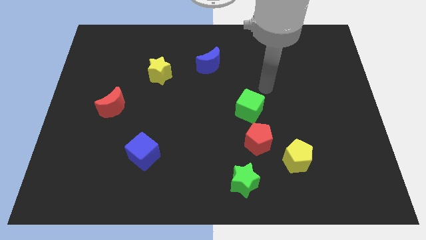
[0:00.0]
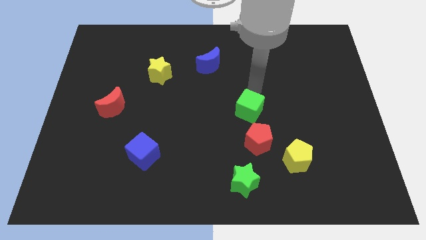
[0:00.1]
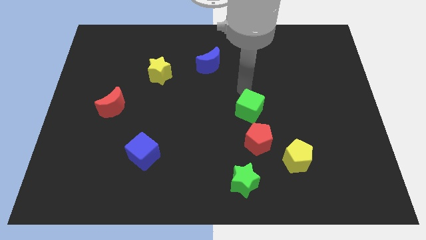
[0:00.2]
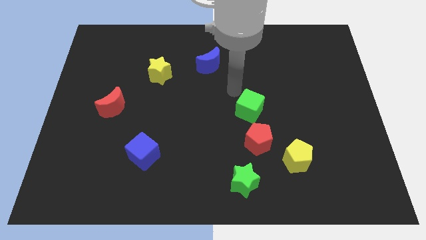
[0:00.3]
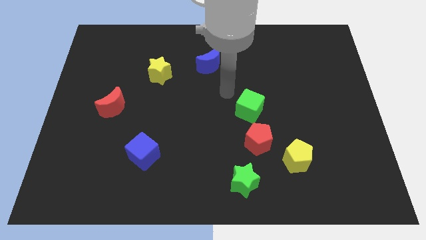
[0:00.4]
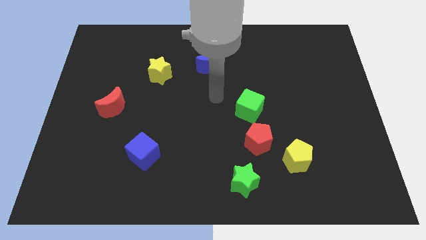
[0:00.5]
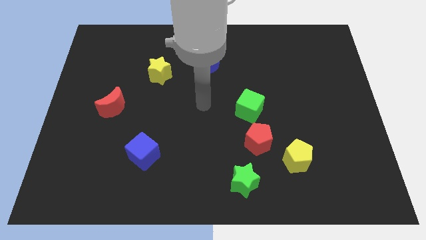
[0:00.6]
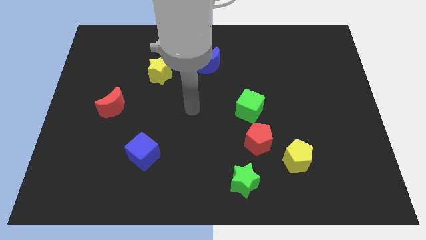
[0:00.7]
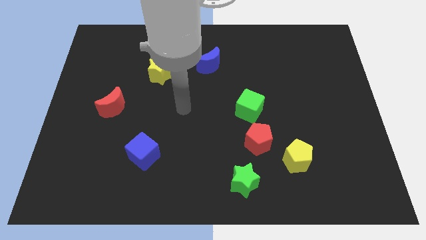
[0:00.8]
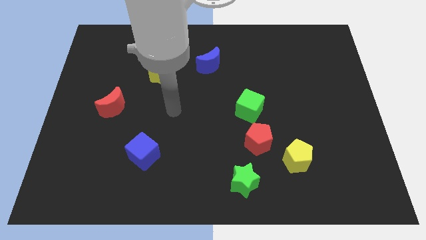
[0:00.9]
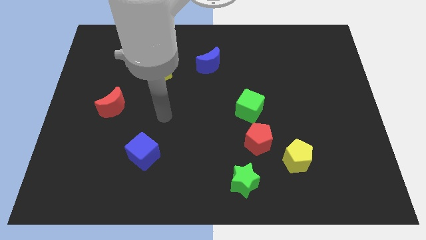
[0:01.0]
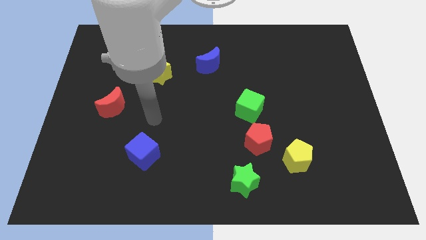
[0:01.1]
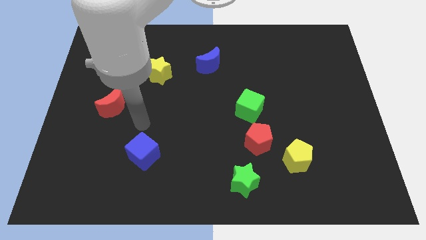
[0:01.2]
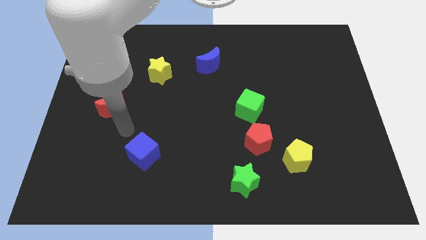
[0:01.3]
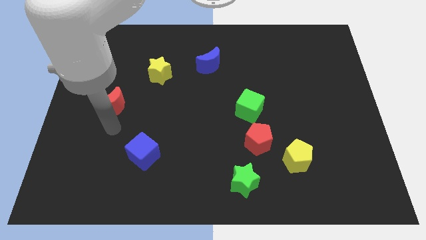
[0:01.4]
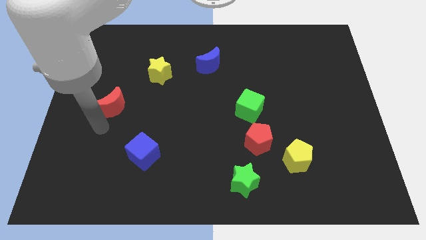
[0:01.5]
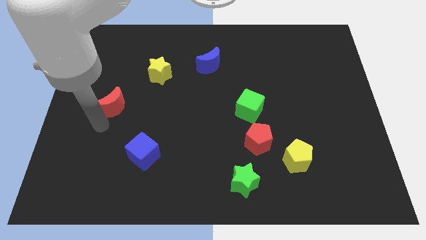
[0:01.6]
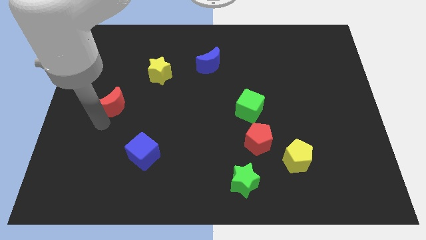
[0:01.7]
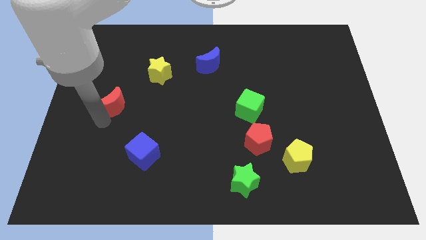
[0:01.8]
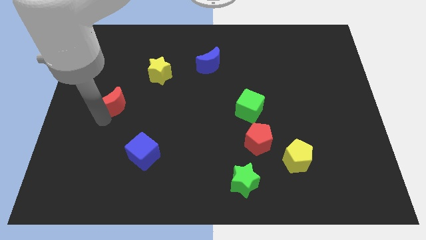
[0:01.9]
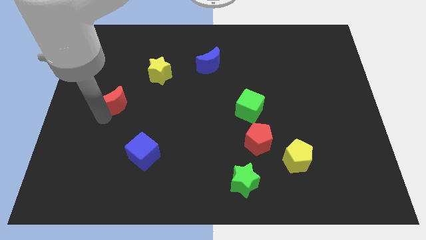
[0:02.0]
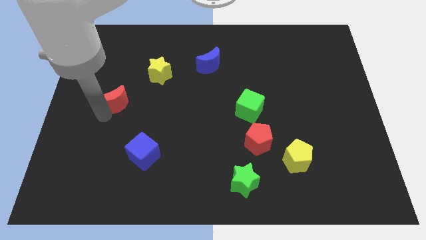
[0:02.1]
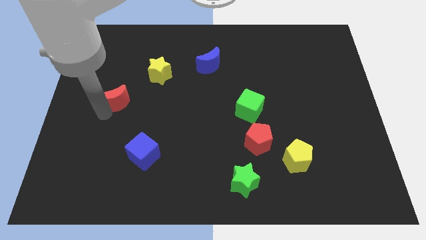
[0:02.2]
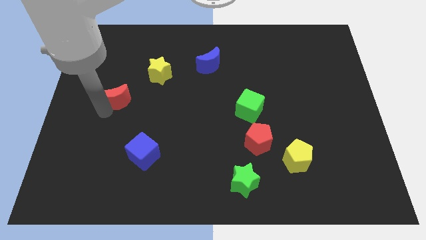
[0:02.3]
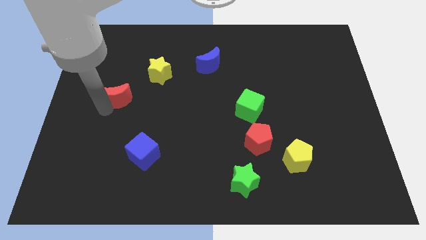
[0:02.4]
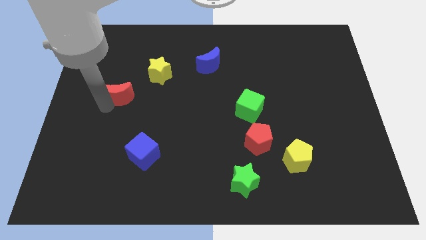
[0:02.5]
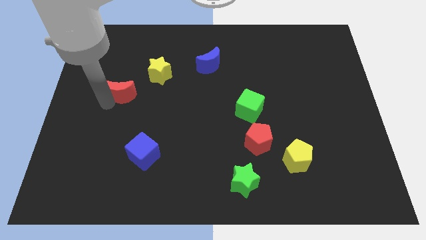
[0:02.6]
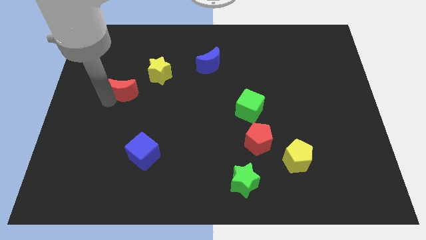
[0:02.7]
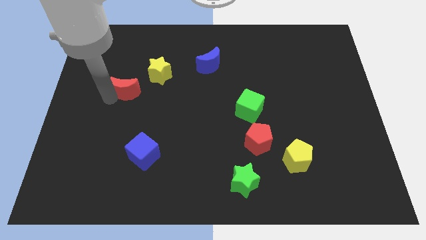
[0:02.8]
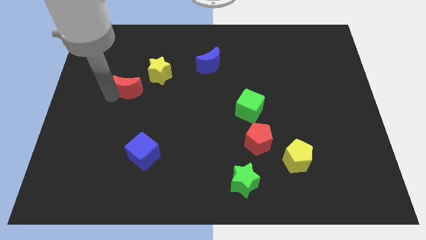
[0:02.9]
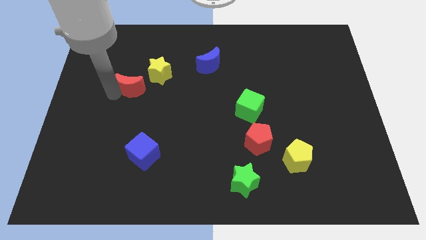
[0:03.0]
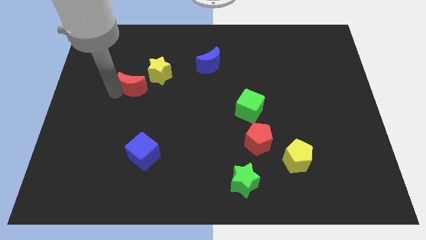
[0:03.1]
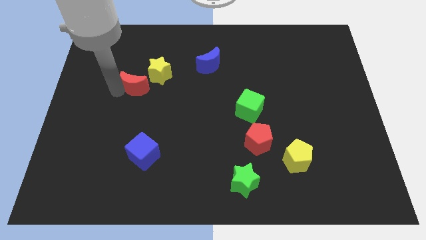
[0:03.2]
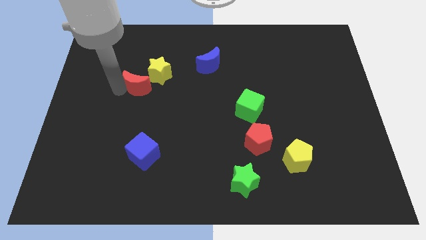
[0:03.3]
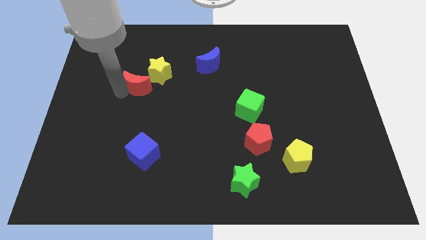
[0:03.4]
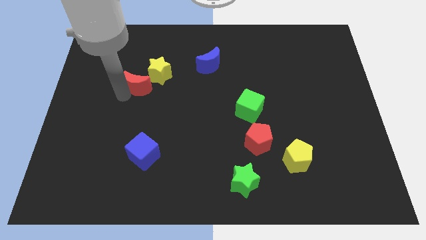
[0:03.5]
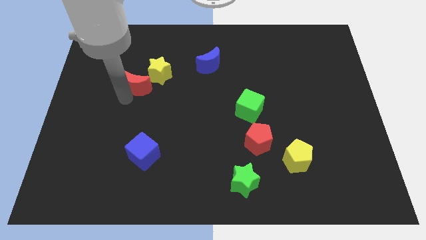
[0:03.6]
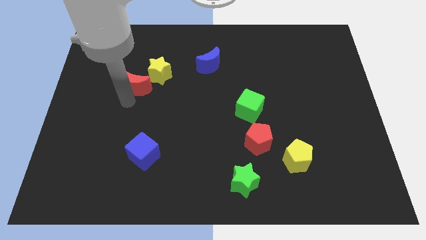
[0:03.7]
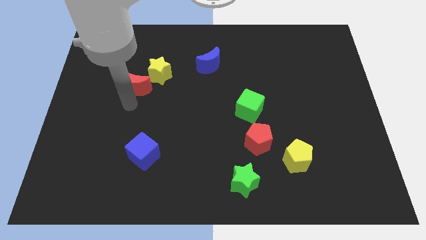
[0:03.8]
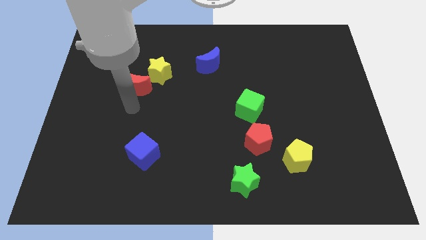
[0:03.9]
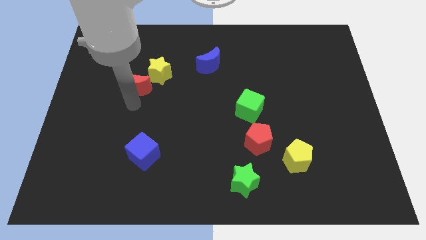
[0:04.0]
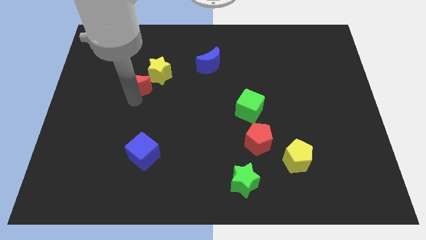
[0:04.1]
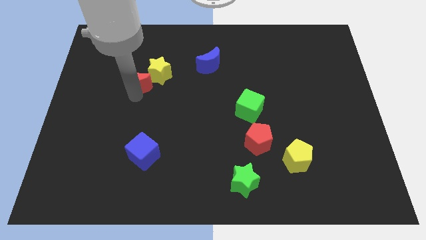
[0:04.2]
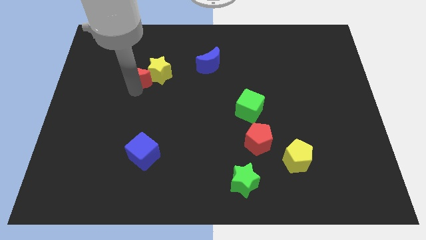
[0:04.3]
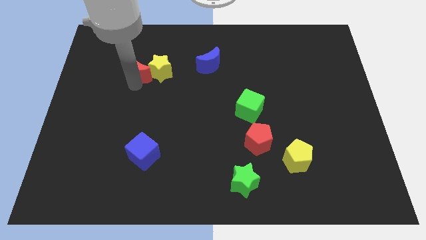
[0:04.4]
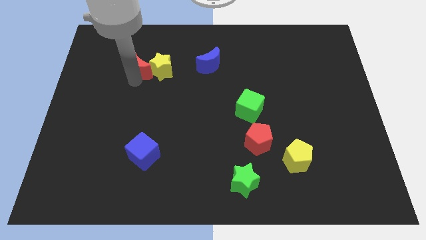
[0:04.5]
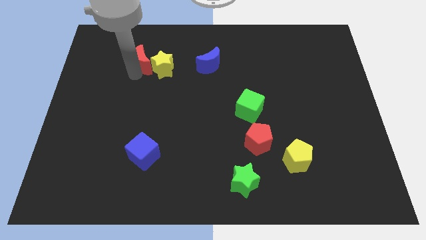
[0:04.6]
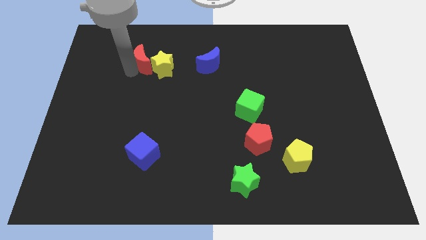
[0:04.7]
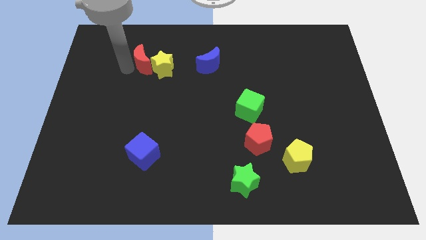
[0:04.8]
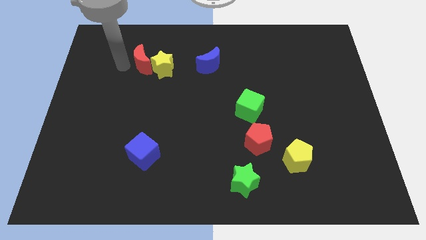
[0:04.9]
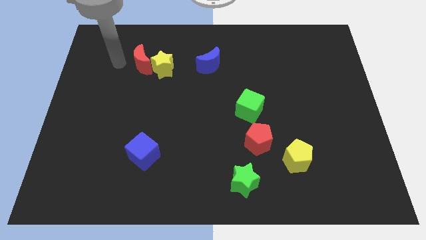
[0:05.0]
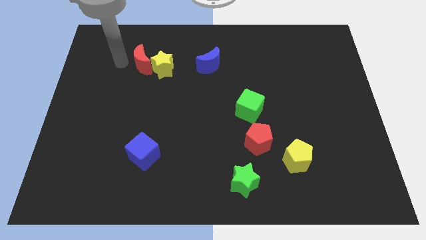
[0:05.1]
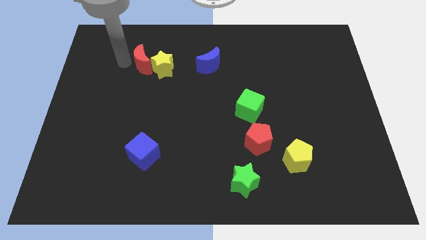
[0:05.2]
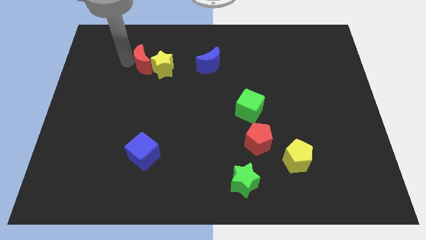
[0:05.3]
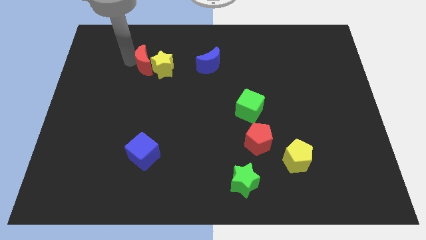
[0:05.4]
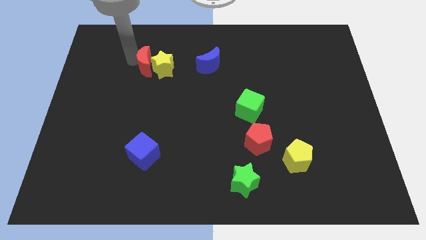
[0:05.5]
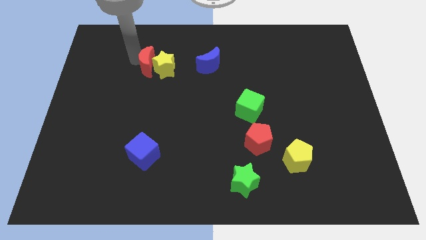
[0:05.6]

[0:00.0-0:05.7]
move the red moon to the left of the blue moon

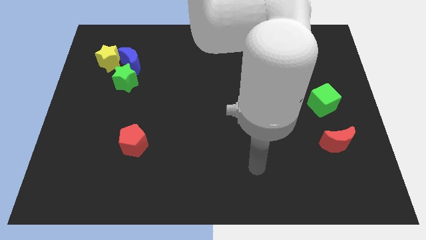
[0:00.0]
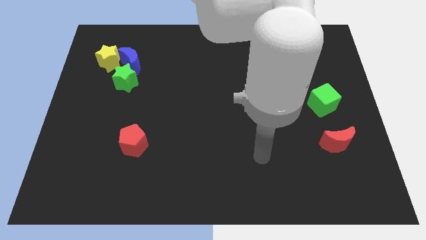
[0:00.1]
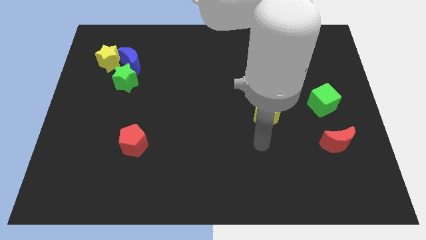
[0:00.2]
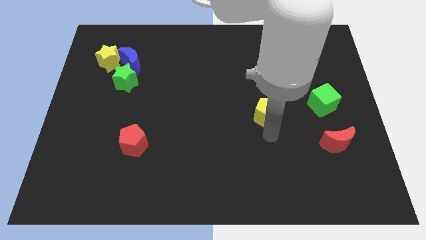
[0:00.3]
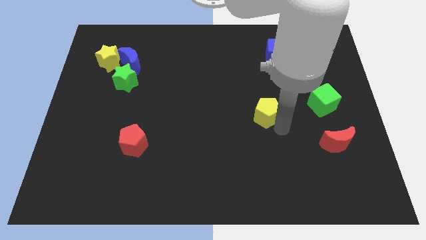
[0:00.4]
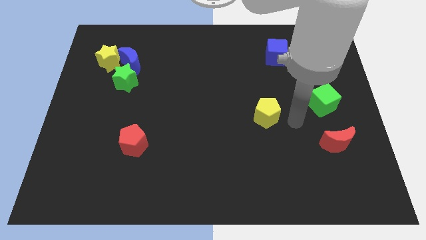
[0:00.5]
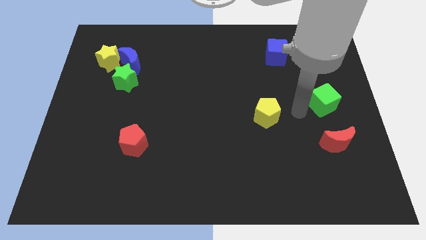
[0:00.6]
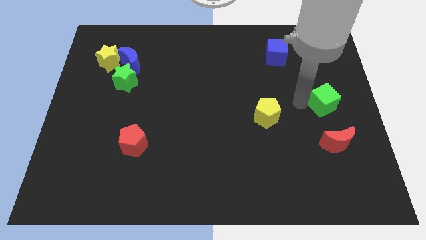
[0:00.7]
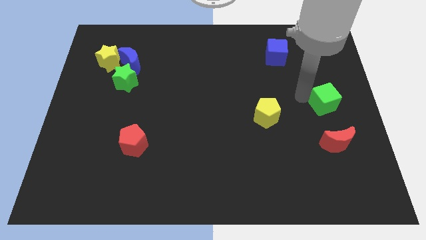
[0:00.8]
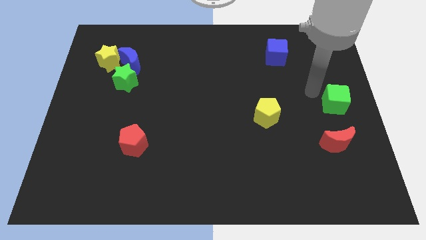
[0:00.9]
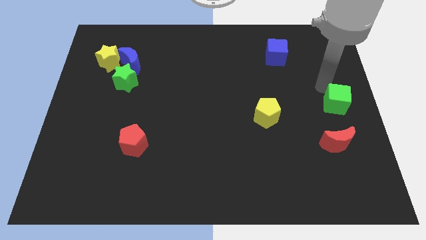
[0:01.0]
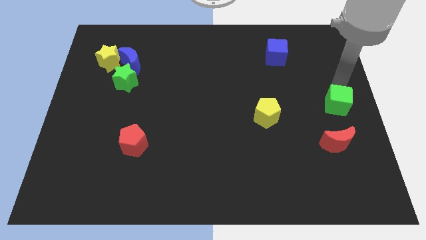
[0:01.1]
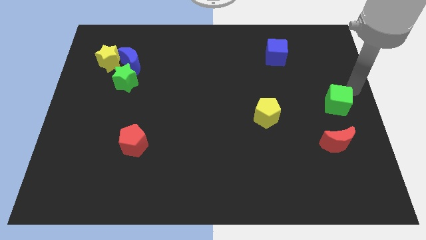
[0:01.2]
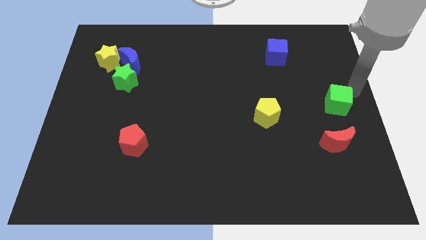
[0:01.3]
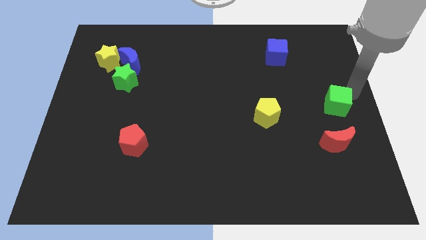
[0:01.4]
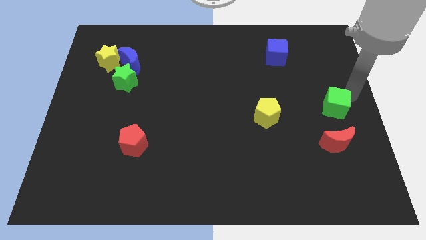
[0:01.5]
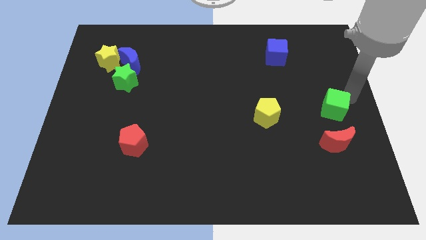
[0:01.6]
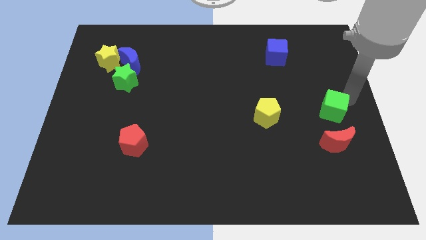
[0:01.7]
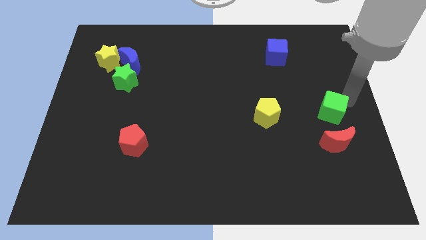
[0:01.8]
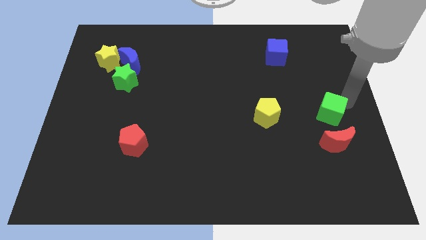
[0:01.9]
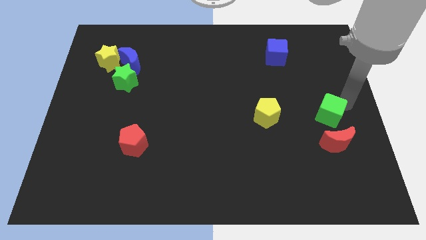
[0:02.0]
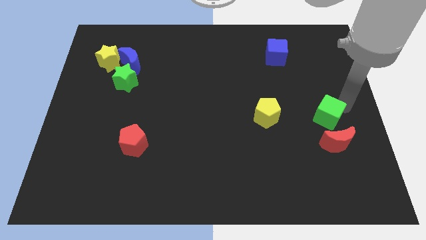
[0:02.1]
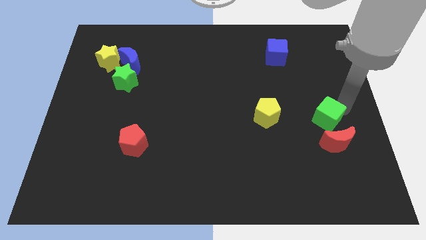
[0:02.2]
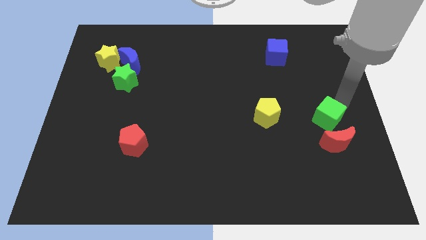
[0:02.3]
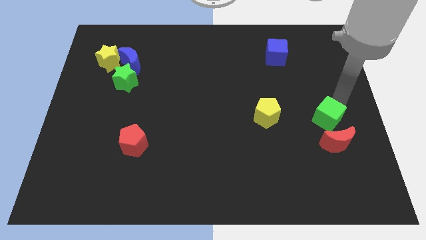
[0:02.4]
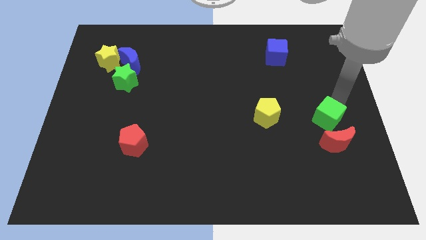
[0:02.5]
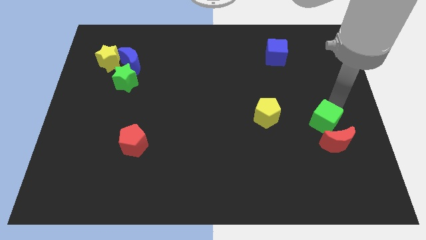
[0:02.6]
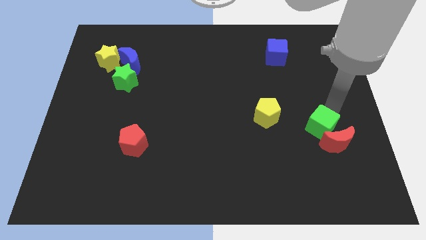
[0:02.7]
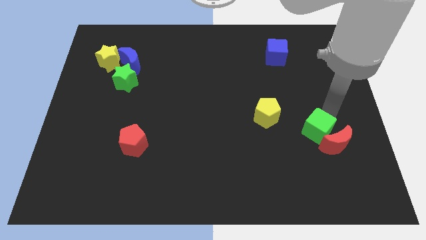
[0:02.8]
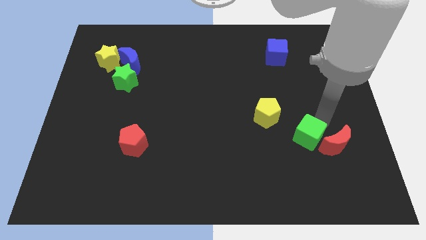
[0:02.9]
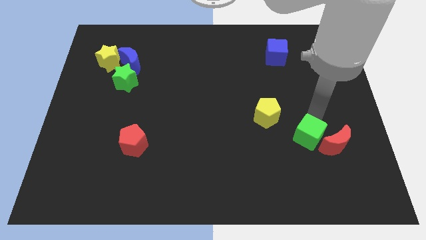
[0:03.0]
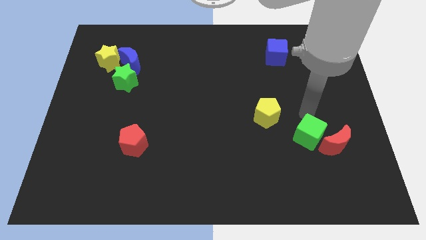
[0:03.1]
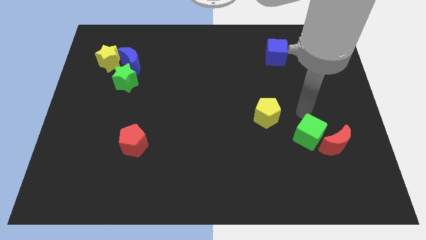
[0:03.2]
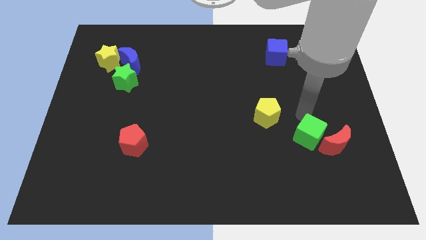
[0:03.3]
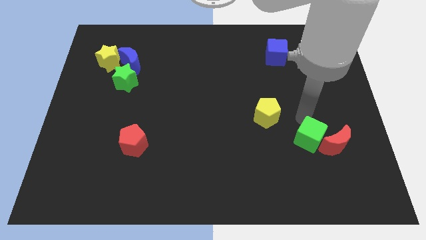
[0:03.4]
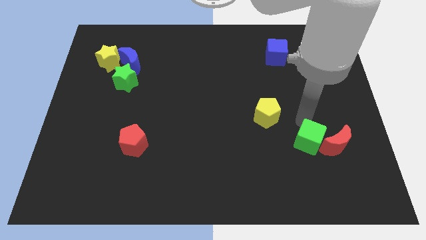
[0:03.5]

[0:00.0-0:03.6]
put the green cube diagonally down and to the left of the red moon
